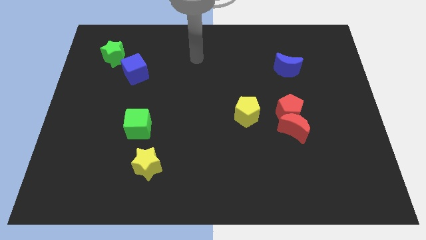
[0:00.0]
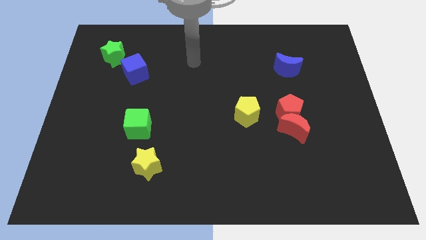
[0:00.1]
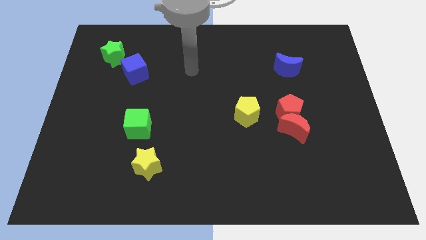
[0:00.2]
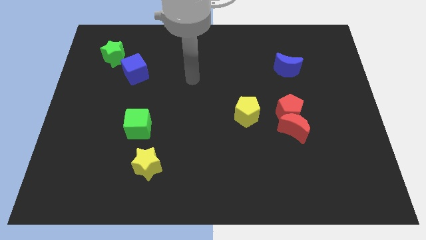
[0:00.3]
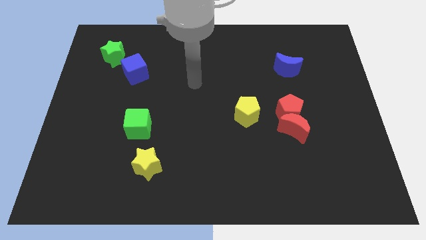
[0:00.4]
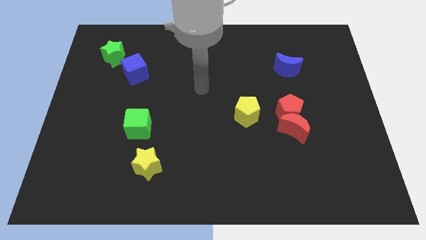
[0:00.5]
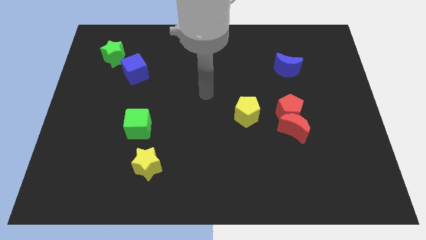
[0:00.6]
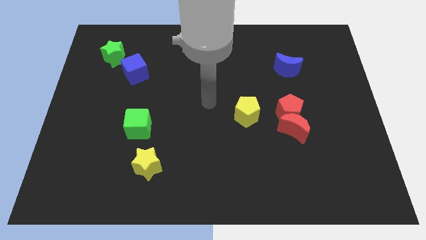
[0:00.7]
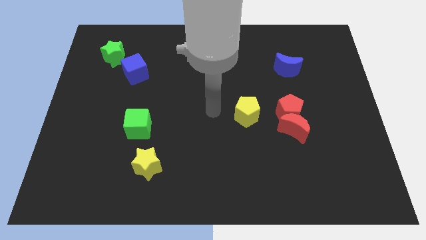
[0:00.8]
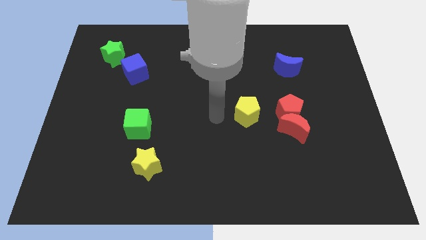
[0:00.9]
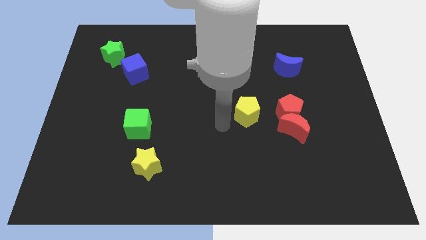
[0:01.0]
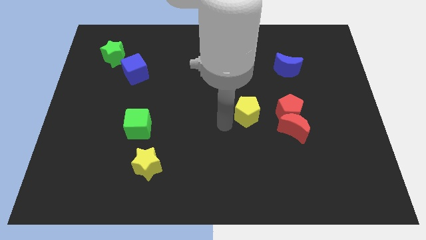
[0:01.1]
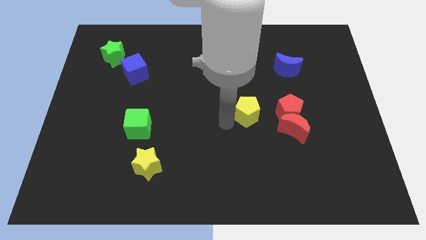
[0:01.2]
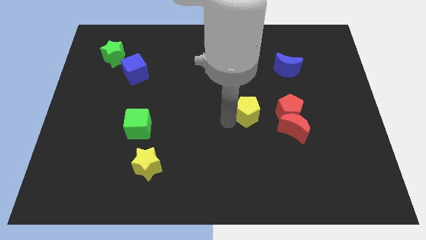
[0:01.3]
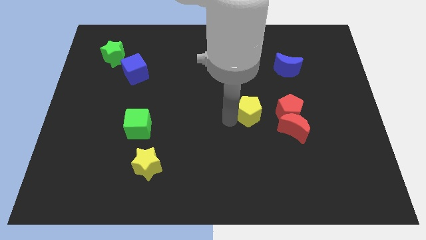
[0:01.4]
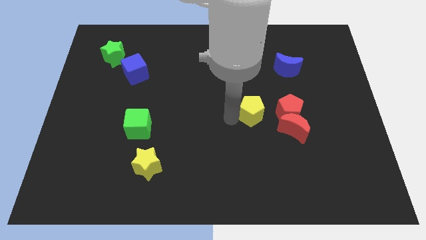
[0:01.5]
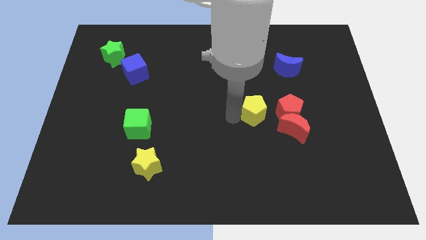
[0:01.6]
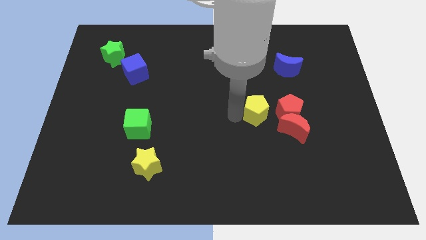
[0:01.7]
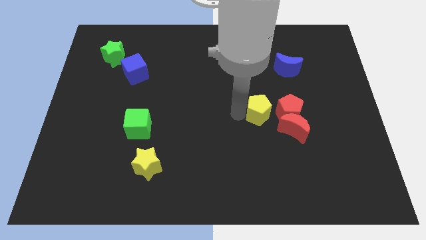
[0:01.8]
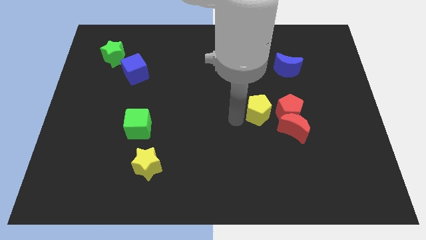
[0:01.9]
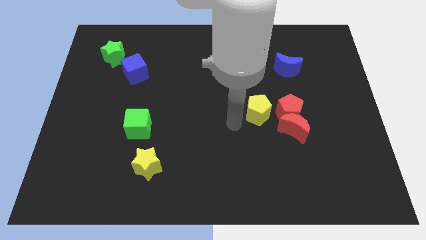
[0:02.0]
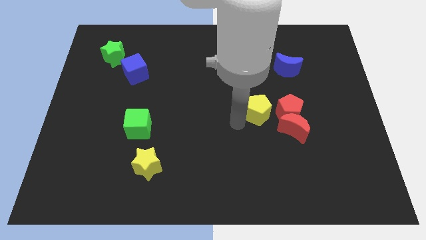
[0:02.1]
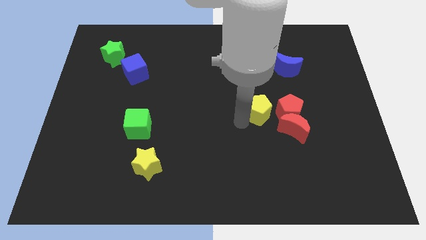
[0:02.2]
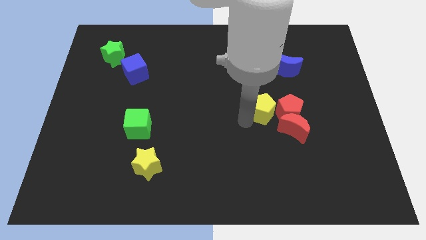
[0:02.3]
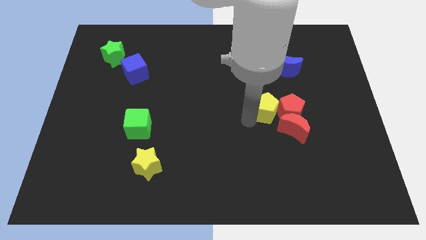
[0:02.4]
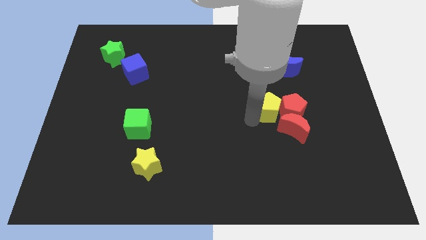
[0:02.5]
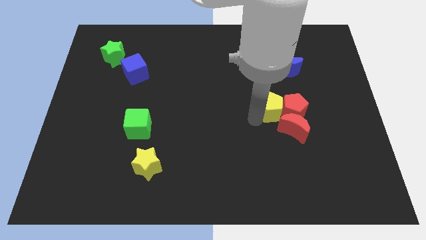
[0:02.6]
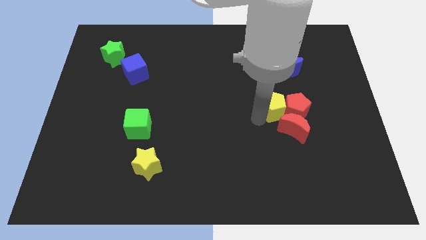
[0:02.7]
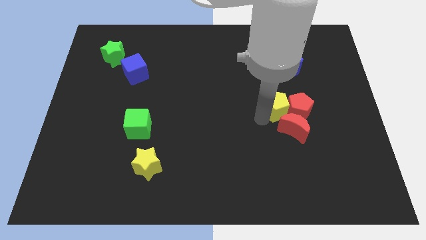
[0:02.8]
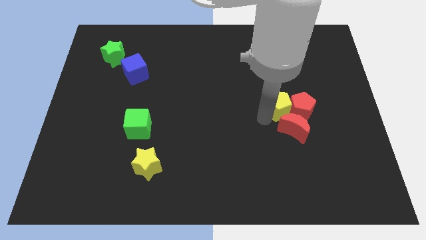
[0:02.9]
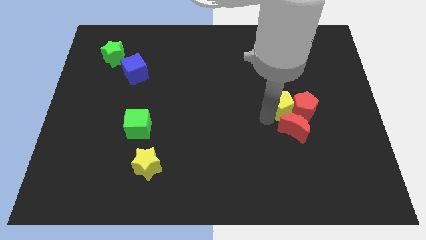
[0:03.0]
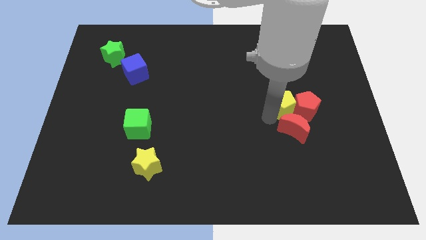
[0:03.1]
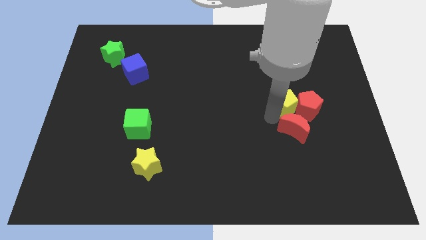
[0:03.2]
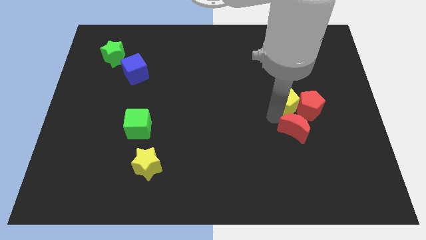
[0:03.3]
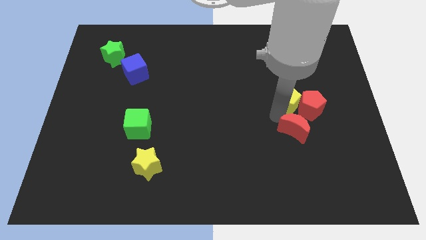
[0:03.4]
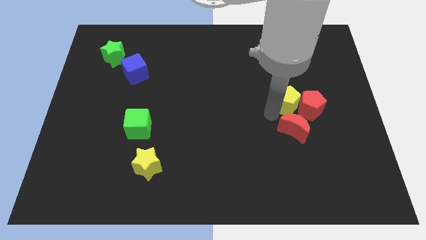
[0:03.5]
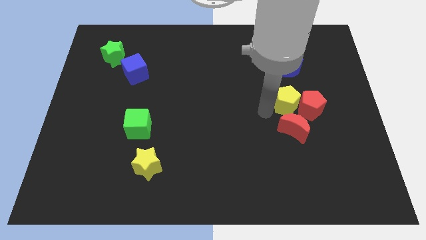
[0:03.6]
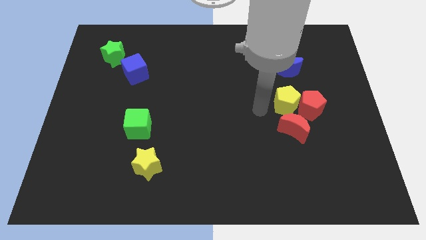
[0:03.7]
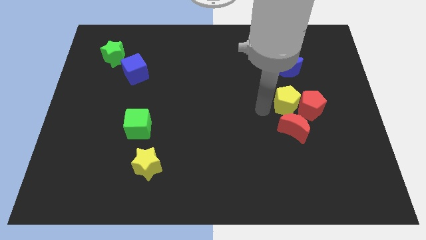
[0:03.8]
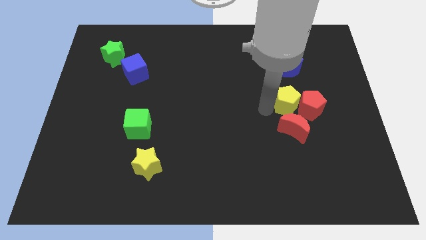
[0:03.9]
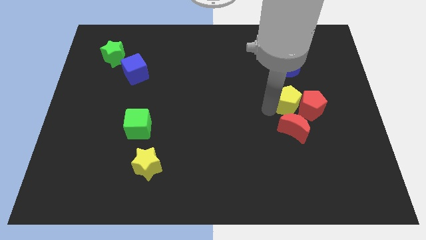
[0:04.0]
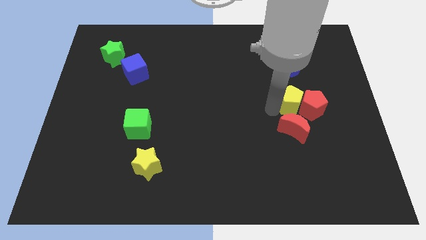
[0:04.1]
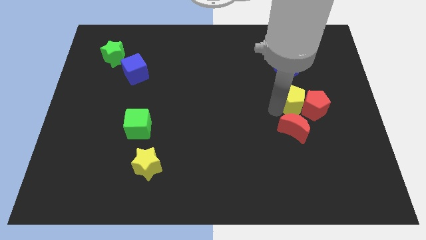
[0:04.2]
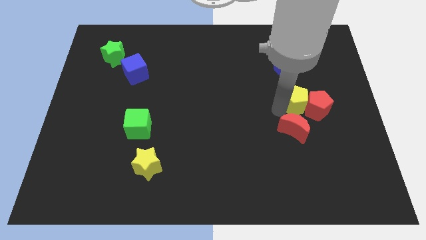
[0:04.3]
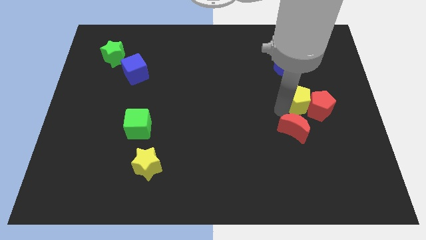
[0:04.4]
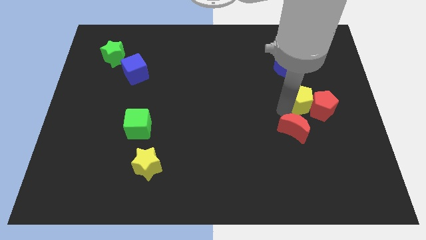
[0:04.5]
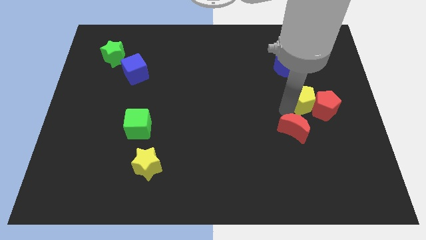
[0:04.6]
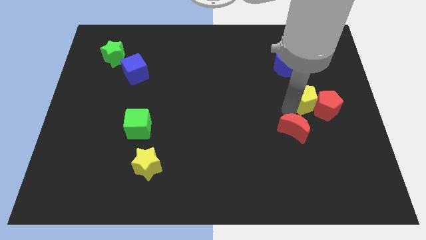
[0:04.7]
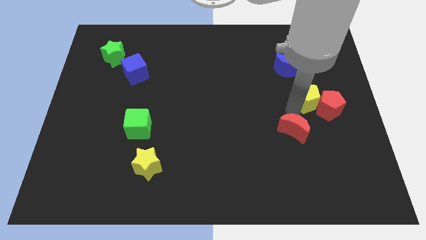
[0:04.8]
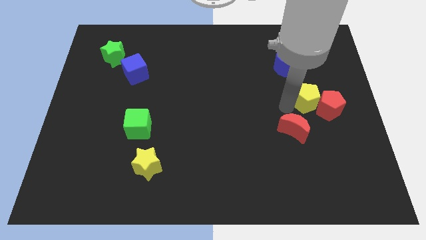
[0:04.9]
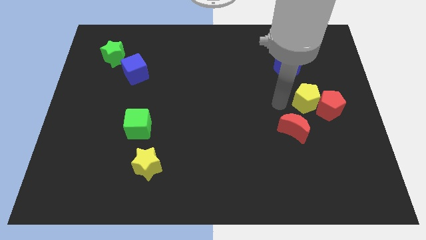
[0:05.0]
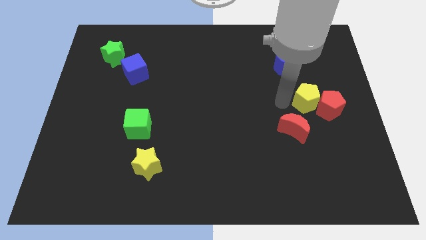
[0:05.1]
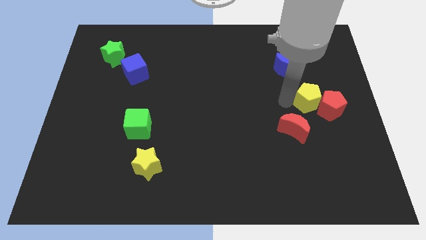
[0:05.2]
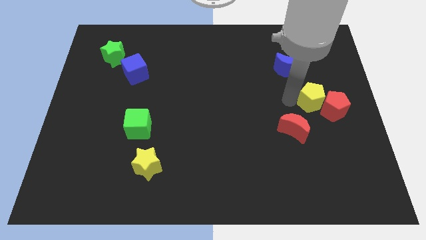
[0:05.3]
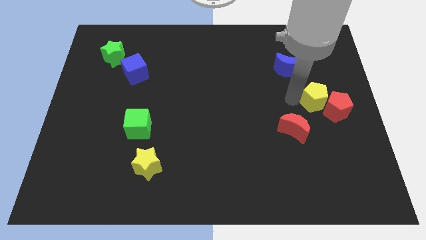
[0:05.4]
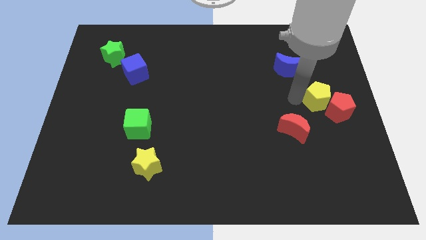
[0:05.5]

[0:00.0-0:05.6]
put the yellow pentagon to the right side
